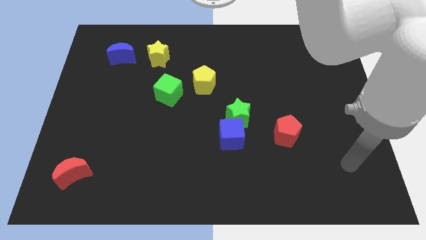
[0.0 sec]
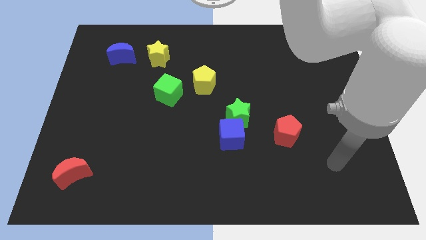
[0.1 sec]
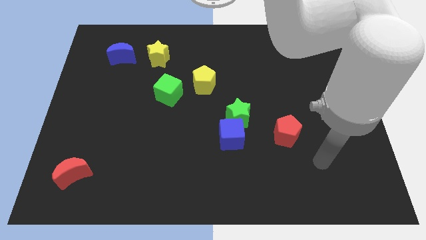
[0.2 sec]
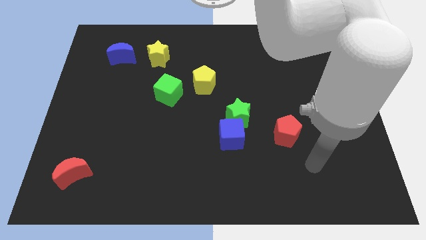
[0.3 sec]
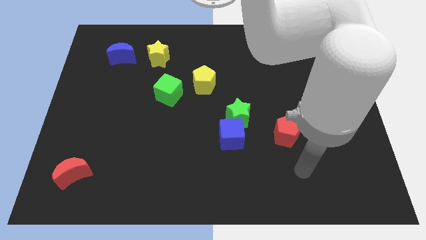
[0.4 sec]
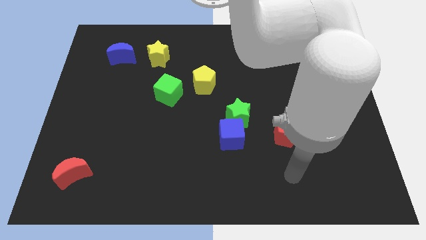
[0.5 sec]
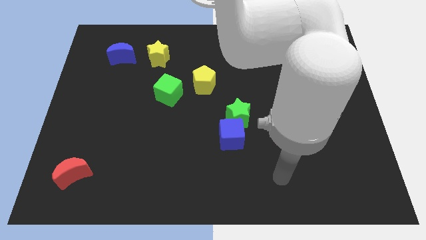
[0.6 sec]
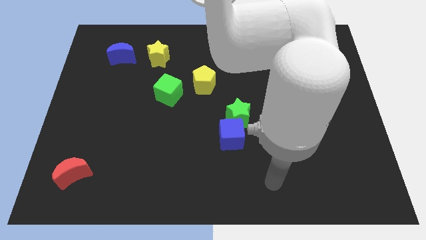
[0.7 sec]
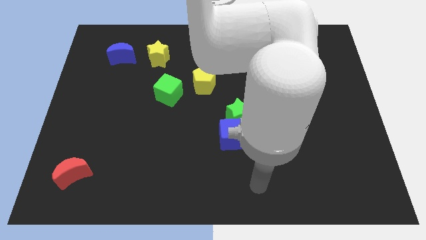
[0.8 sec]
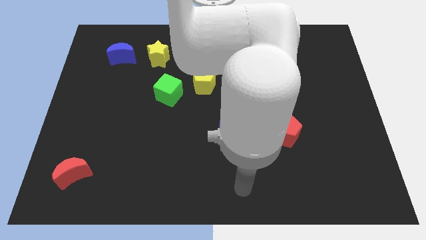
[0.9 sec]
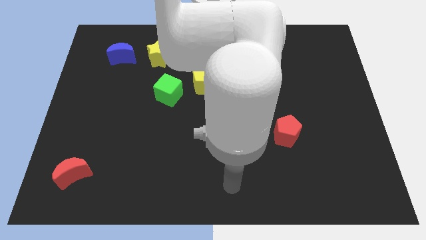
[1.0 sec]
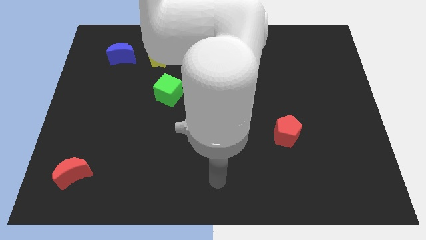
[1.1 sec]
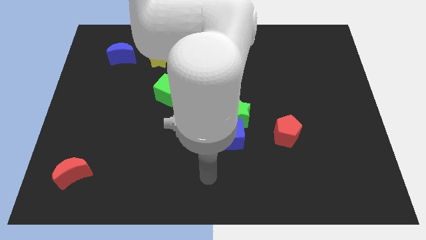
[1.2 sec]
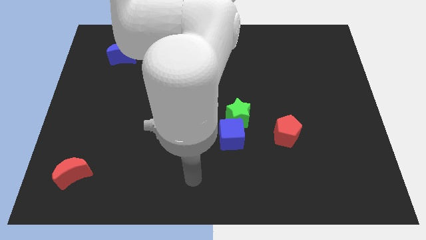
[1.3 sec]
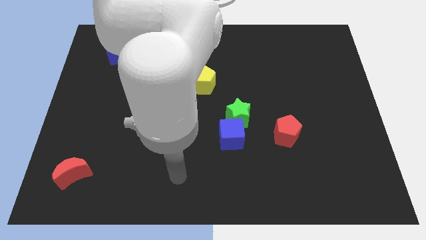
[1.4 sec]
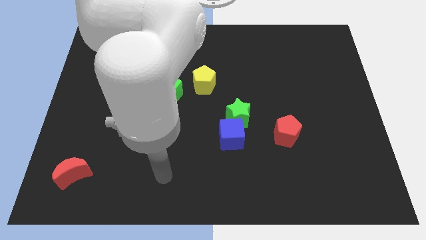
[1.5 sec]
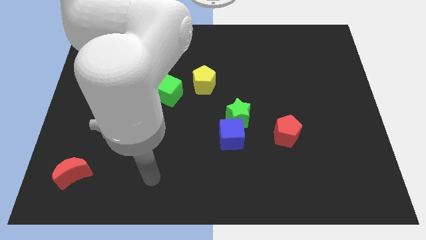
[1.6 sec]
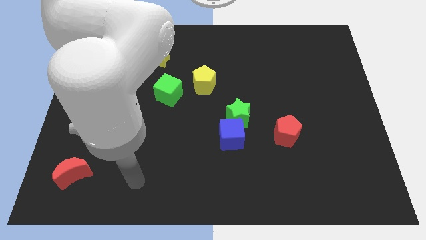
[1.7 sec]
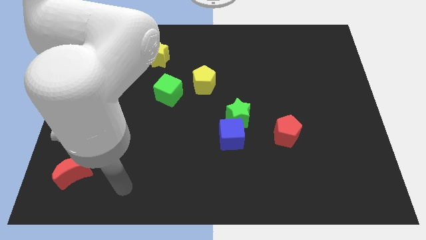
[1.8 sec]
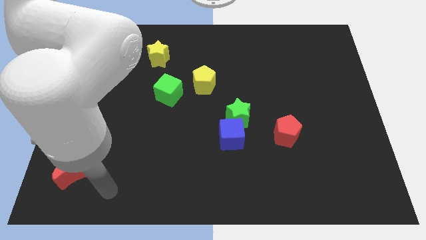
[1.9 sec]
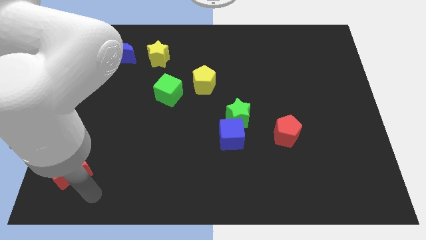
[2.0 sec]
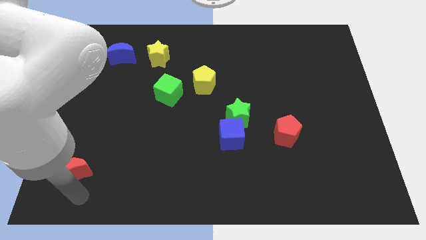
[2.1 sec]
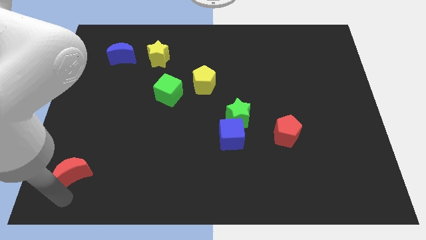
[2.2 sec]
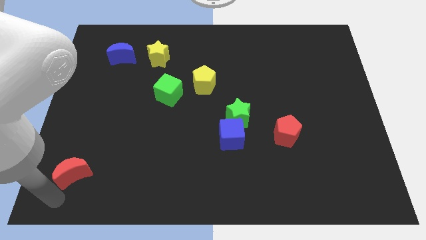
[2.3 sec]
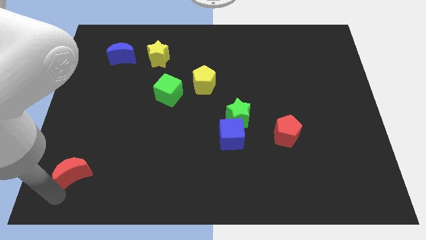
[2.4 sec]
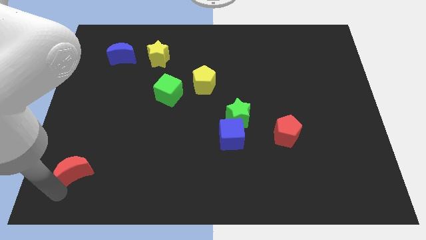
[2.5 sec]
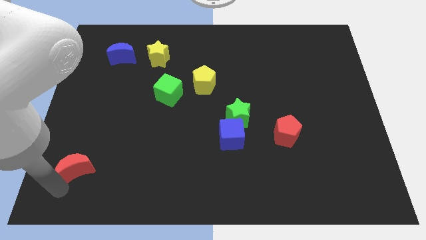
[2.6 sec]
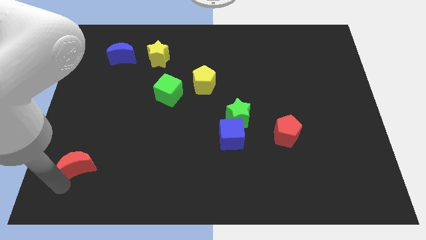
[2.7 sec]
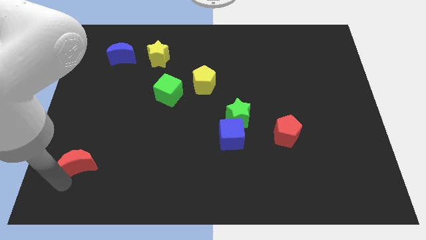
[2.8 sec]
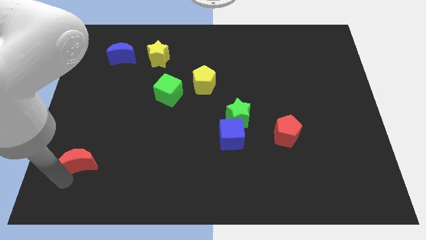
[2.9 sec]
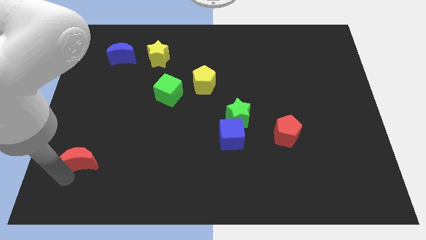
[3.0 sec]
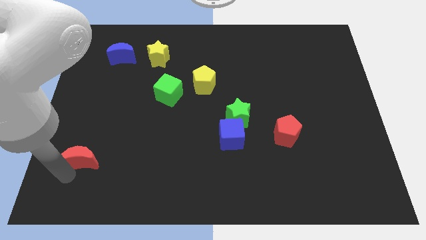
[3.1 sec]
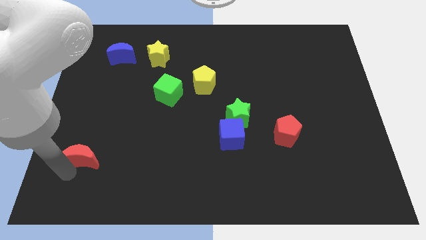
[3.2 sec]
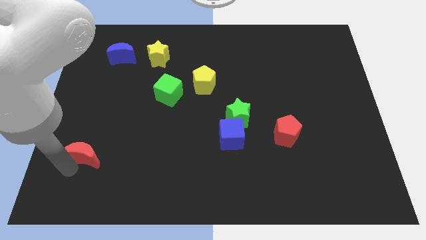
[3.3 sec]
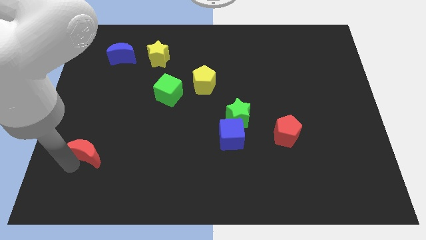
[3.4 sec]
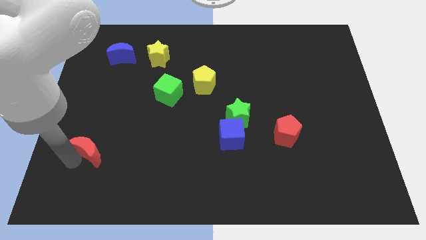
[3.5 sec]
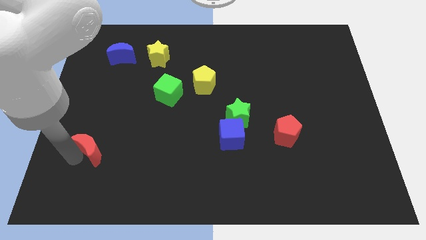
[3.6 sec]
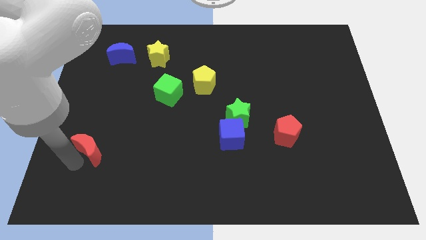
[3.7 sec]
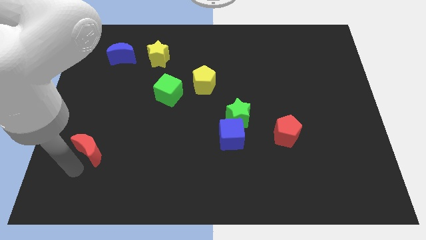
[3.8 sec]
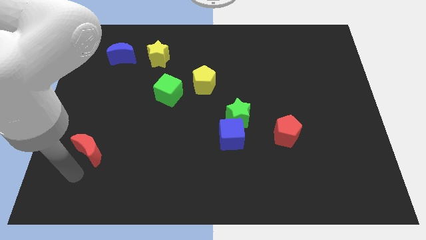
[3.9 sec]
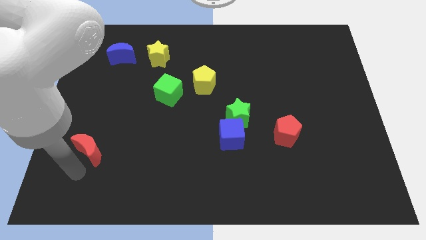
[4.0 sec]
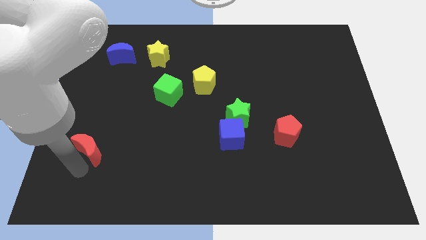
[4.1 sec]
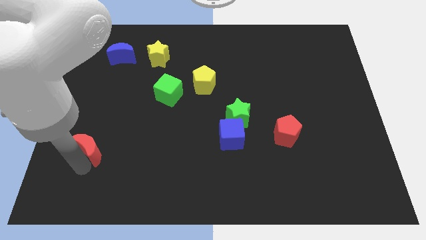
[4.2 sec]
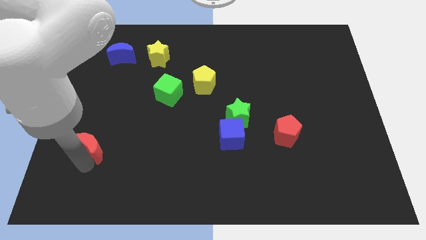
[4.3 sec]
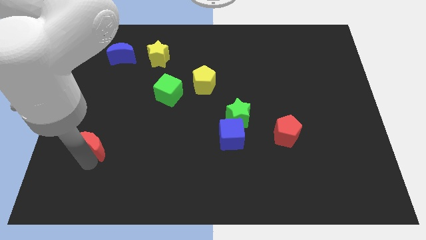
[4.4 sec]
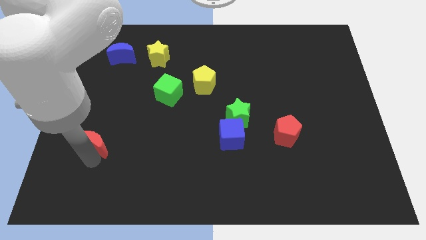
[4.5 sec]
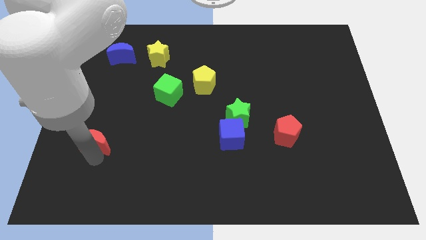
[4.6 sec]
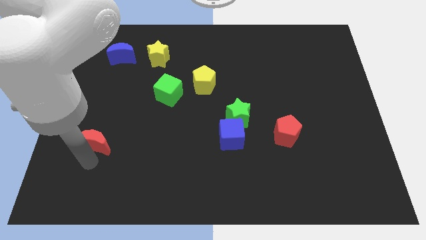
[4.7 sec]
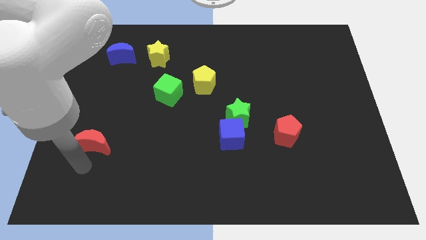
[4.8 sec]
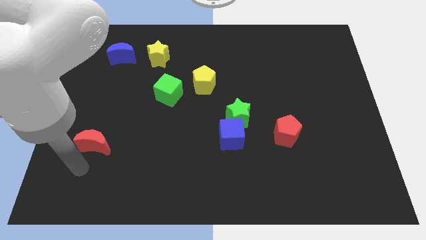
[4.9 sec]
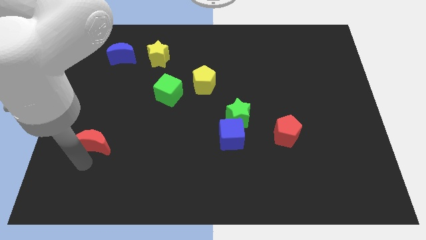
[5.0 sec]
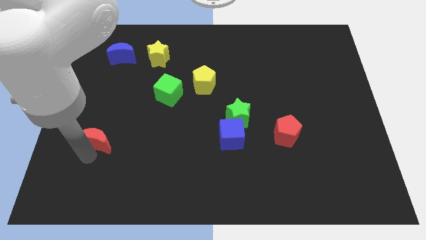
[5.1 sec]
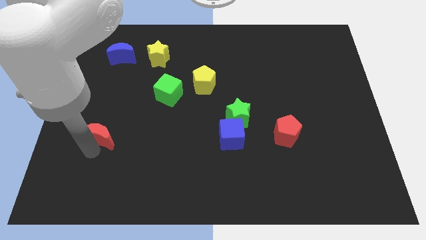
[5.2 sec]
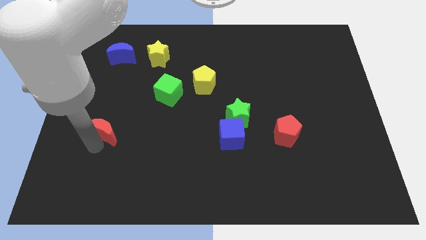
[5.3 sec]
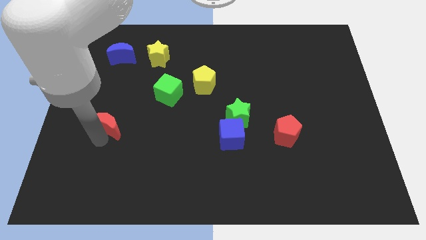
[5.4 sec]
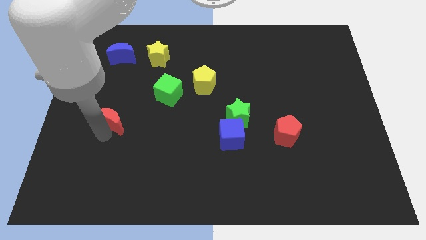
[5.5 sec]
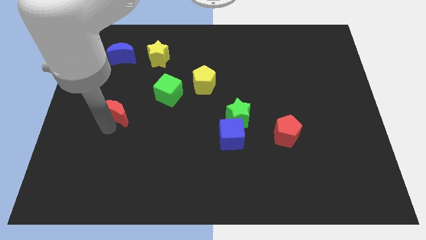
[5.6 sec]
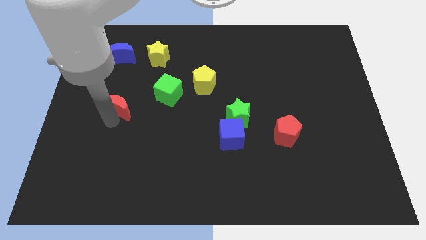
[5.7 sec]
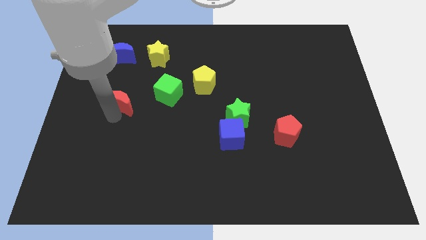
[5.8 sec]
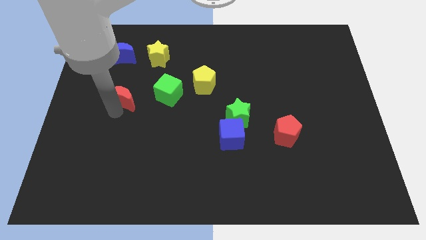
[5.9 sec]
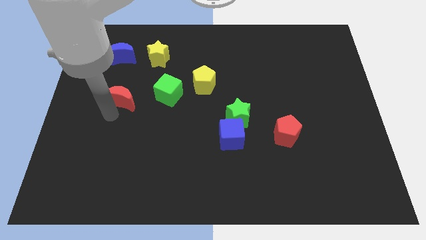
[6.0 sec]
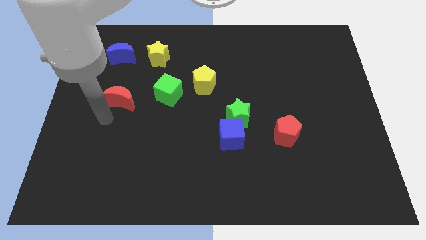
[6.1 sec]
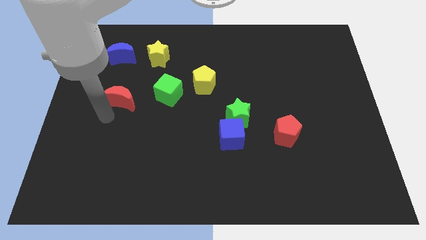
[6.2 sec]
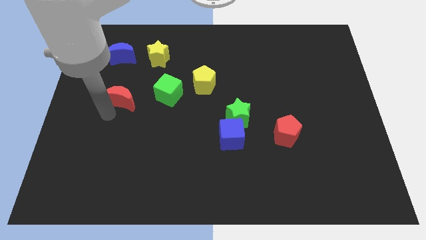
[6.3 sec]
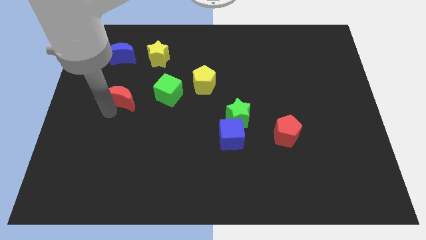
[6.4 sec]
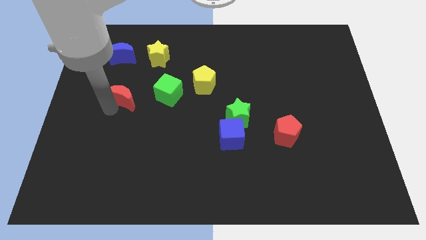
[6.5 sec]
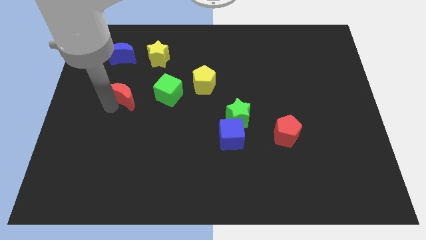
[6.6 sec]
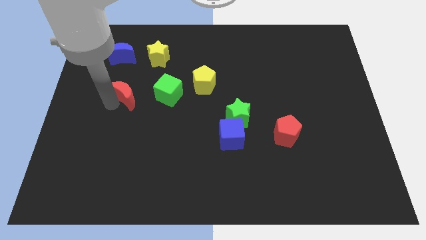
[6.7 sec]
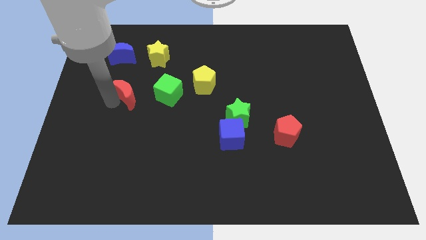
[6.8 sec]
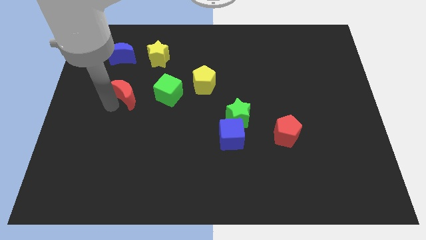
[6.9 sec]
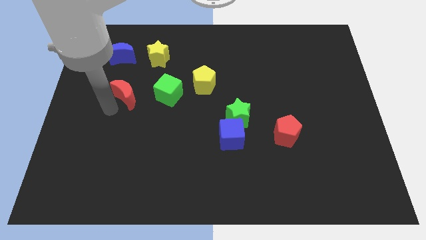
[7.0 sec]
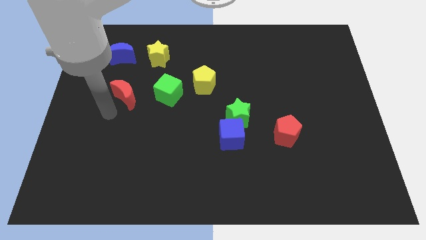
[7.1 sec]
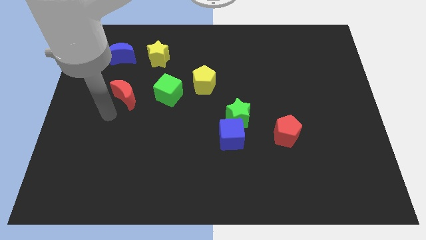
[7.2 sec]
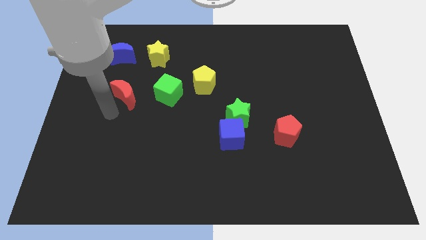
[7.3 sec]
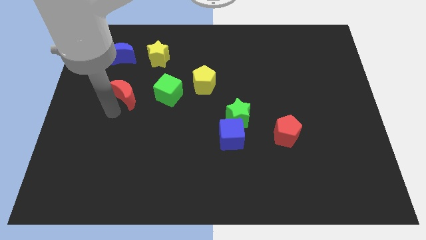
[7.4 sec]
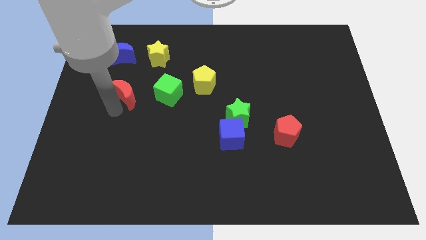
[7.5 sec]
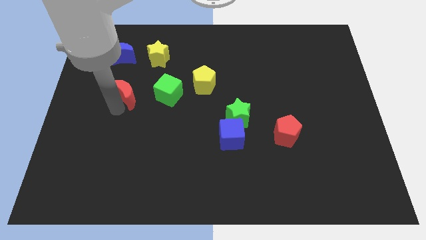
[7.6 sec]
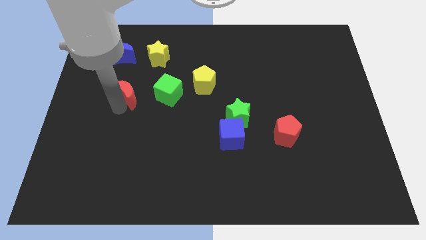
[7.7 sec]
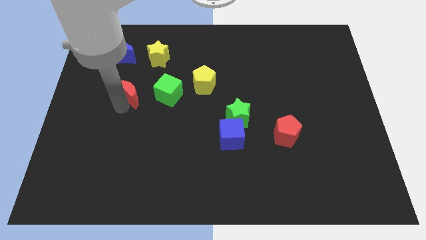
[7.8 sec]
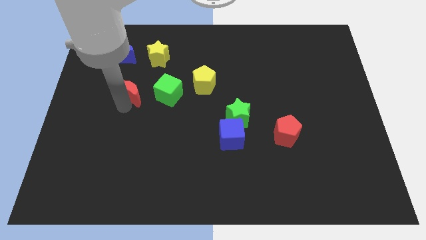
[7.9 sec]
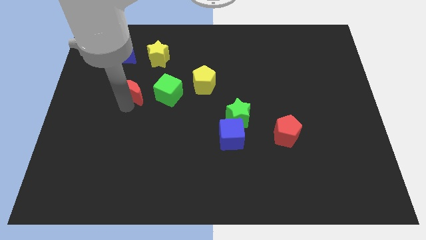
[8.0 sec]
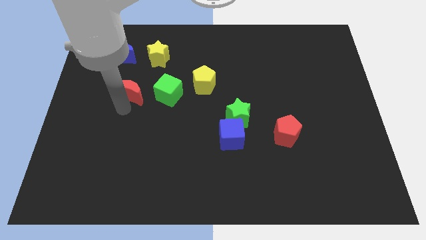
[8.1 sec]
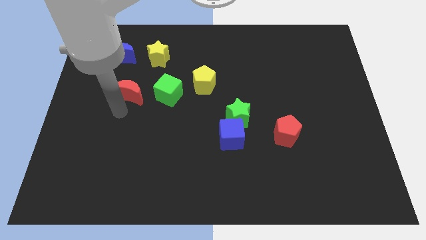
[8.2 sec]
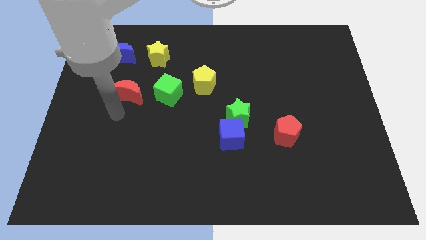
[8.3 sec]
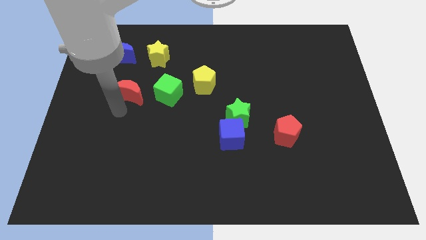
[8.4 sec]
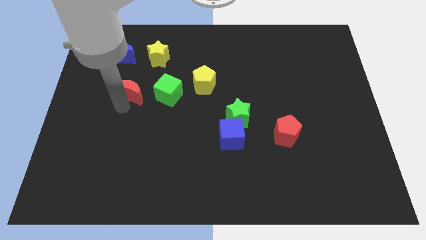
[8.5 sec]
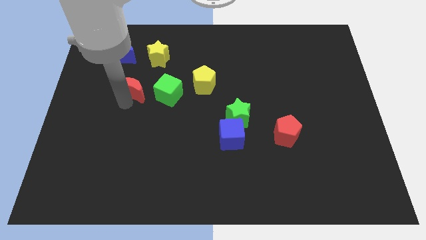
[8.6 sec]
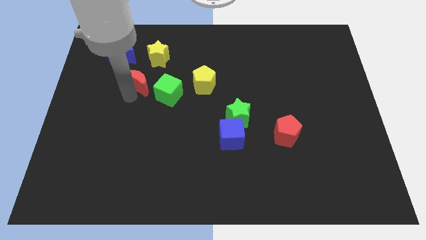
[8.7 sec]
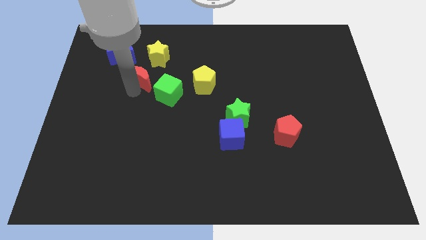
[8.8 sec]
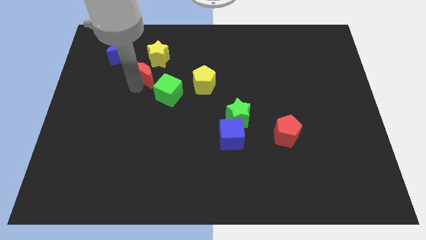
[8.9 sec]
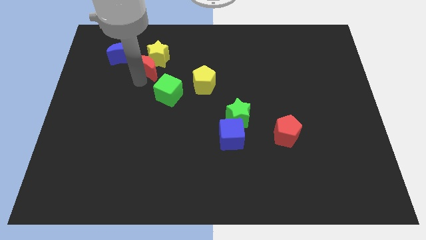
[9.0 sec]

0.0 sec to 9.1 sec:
slide the red moon towards the yellow star
